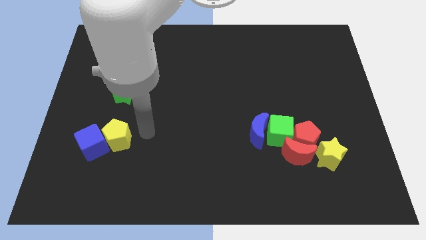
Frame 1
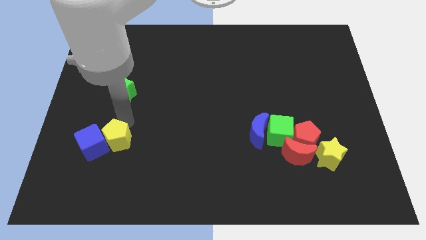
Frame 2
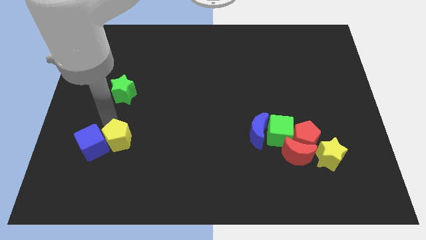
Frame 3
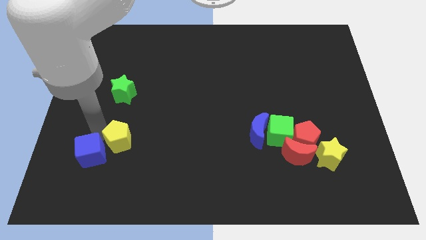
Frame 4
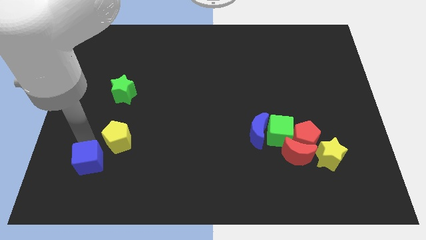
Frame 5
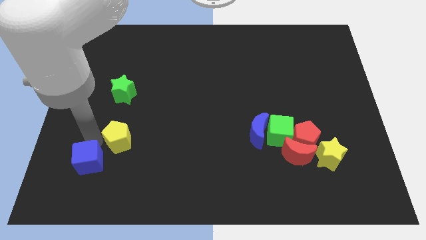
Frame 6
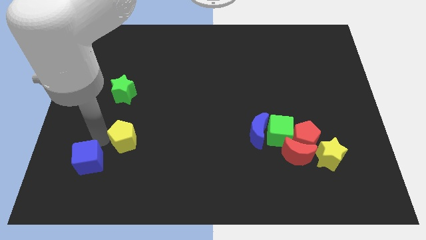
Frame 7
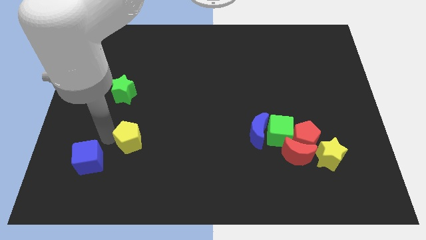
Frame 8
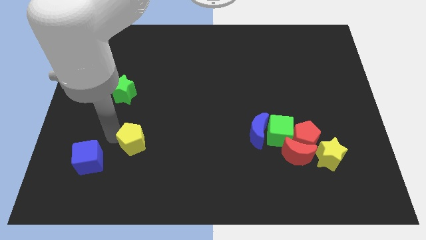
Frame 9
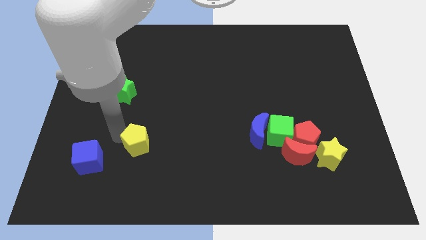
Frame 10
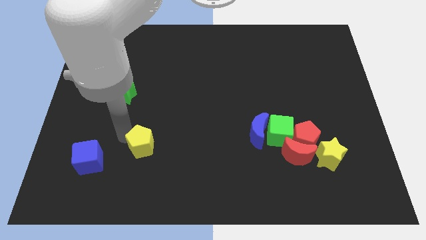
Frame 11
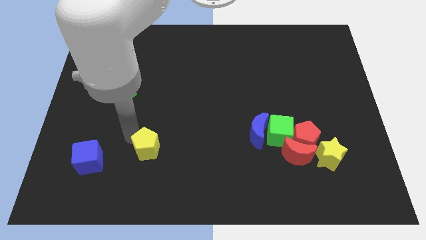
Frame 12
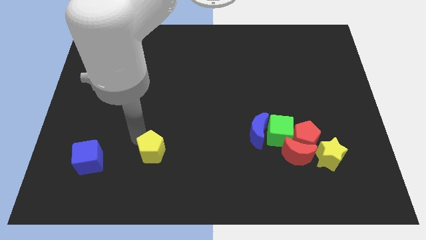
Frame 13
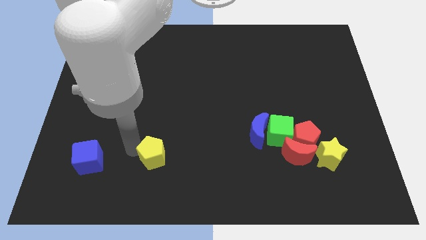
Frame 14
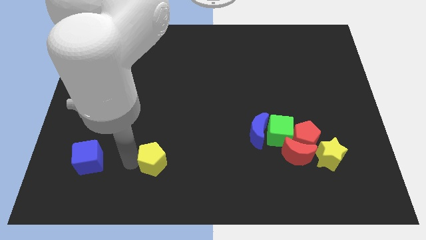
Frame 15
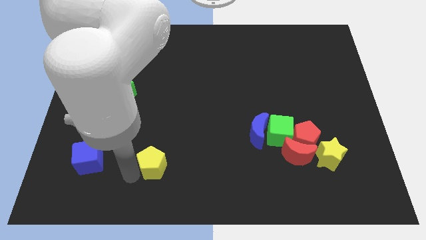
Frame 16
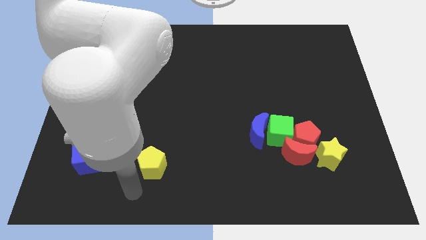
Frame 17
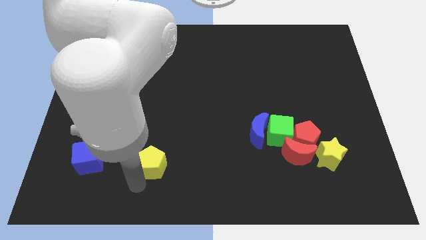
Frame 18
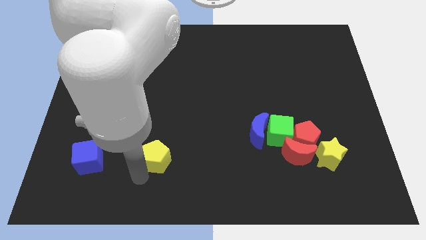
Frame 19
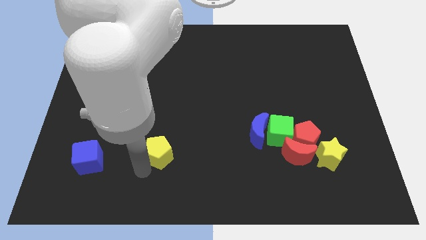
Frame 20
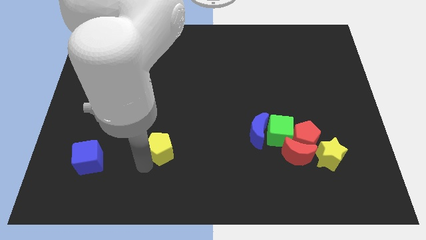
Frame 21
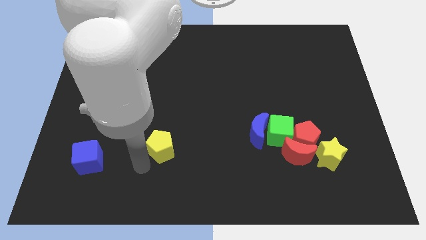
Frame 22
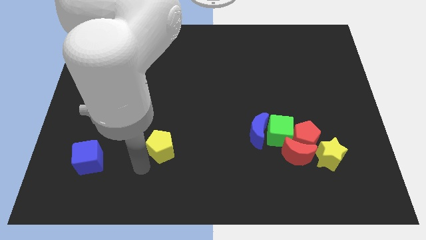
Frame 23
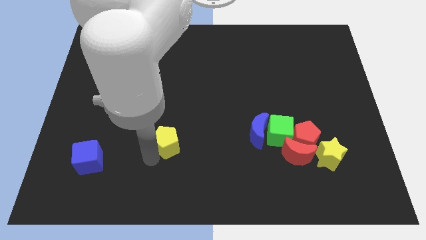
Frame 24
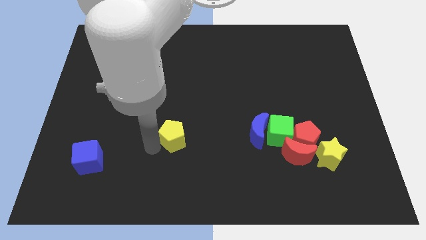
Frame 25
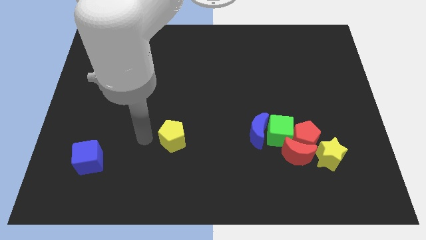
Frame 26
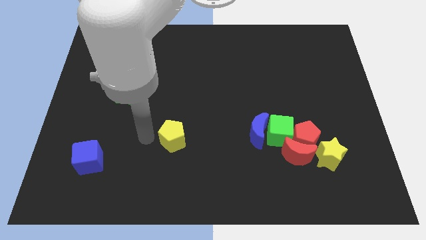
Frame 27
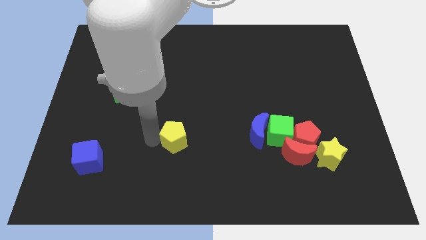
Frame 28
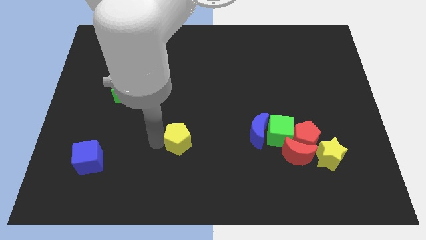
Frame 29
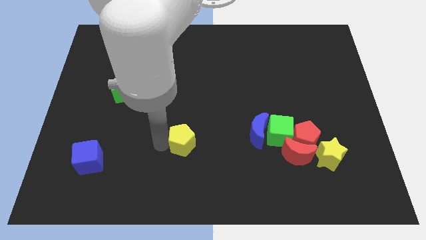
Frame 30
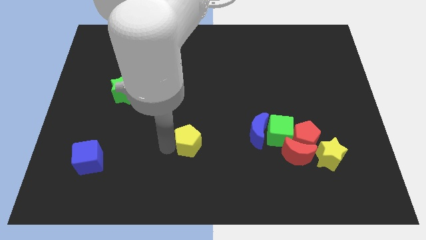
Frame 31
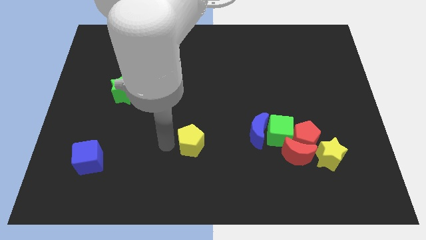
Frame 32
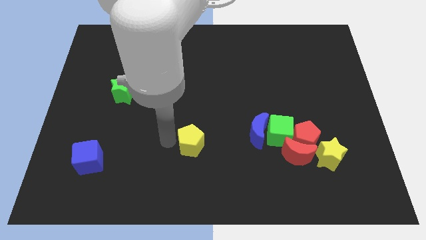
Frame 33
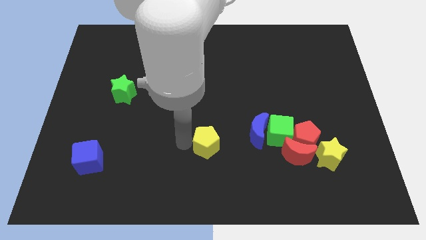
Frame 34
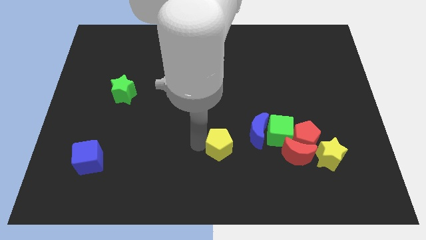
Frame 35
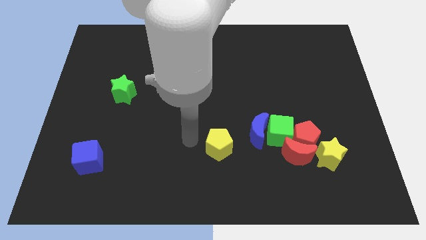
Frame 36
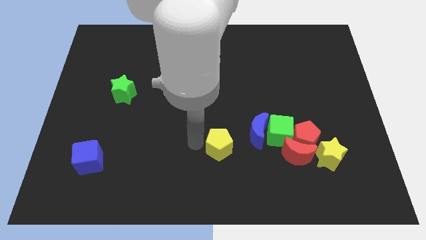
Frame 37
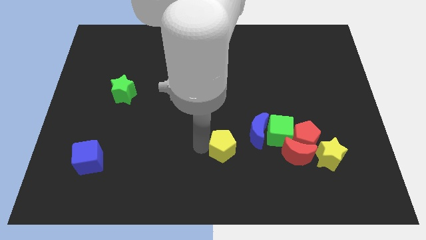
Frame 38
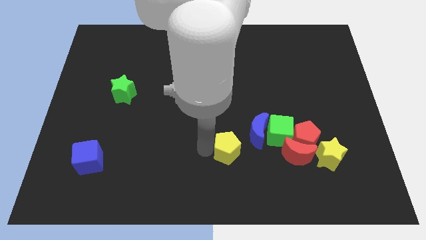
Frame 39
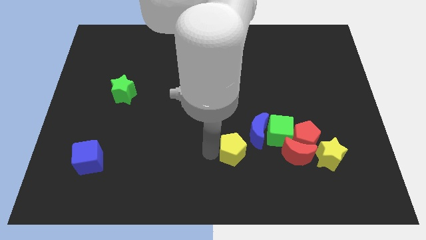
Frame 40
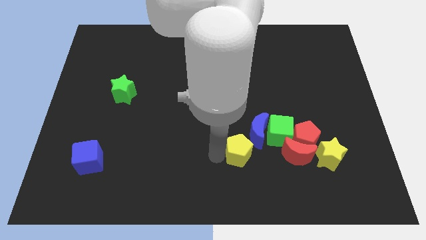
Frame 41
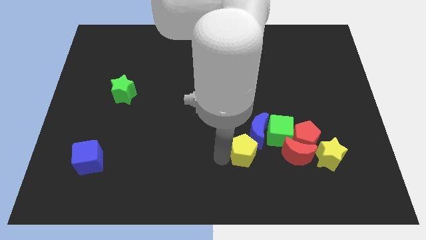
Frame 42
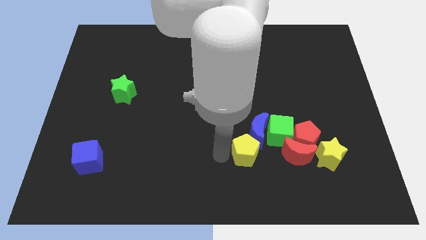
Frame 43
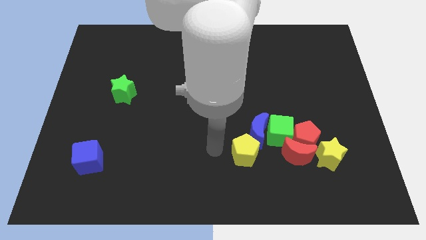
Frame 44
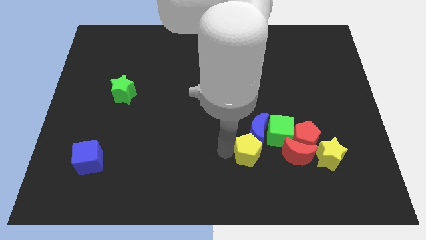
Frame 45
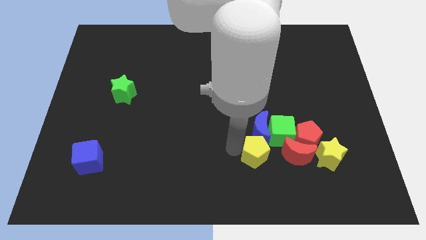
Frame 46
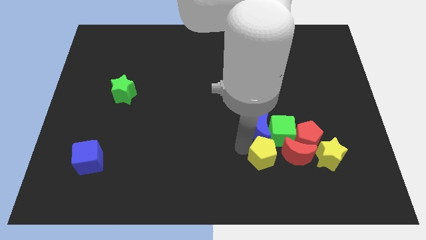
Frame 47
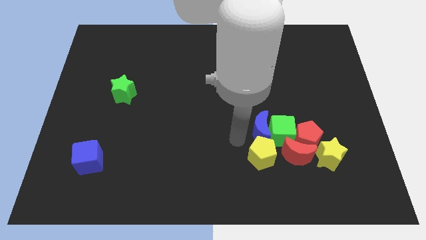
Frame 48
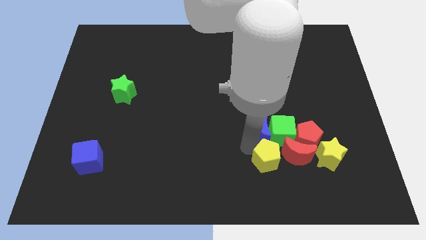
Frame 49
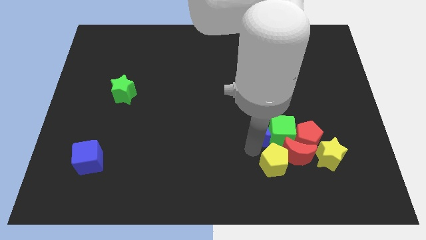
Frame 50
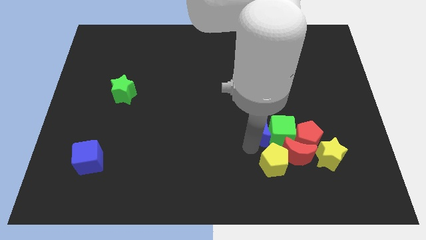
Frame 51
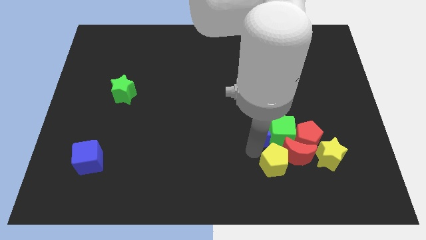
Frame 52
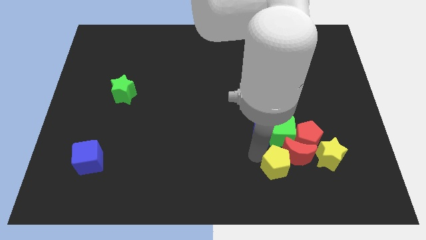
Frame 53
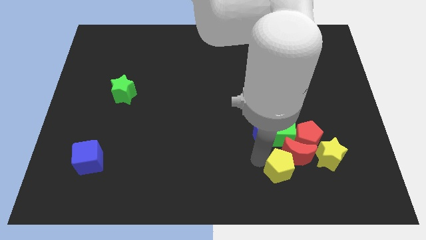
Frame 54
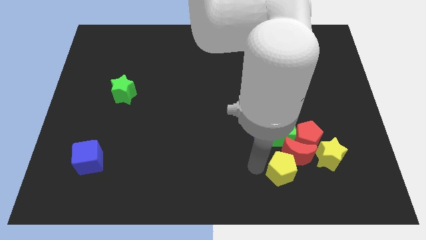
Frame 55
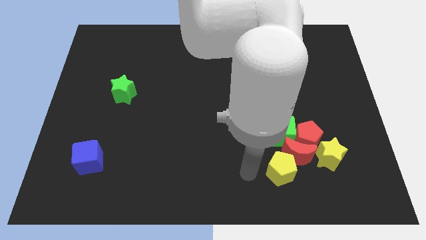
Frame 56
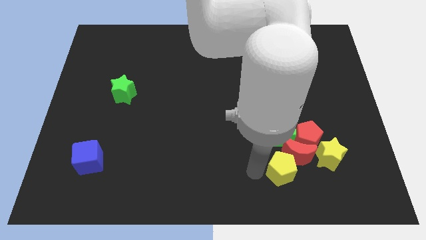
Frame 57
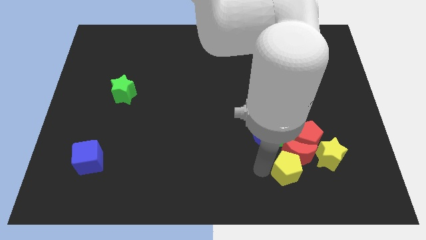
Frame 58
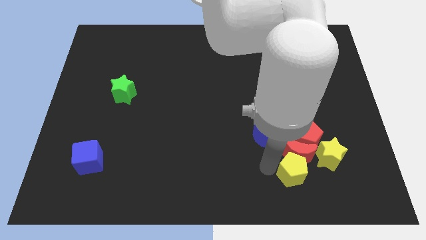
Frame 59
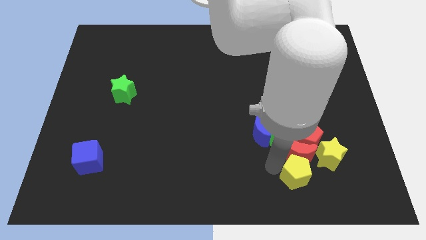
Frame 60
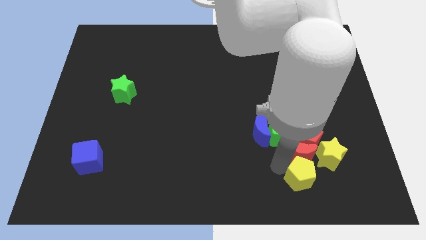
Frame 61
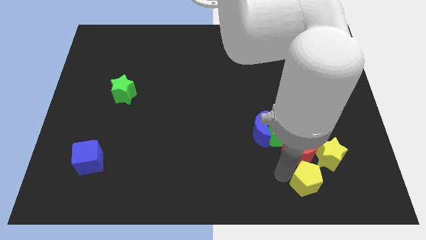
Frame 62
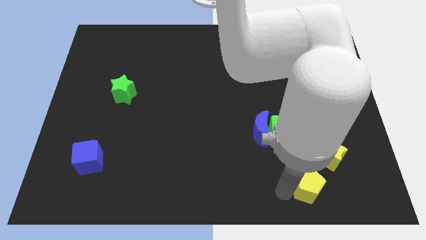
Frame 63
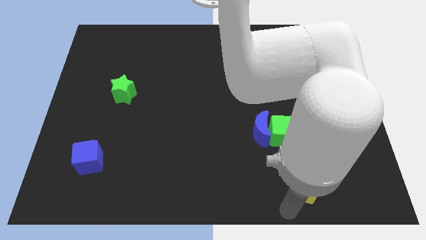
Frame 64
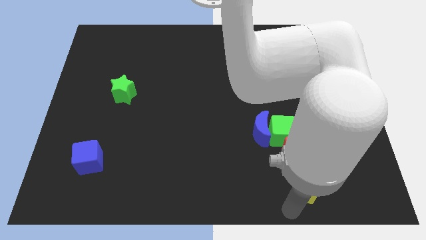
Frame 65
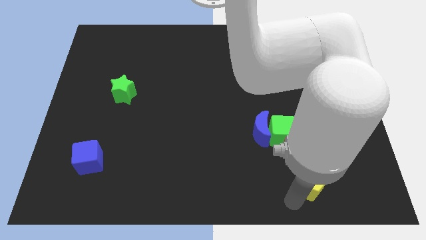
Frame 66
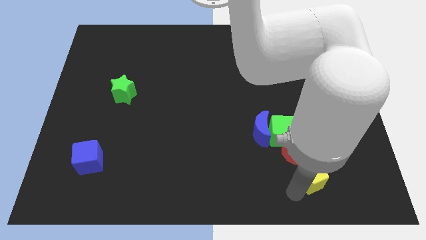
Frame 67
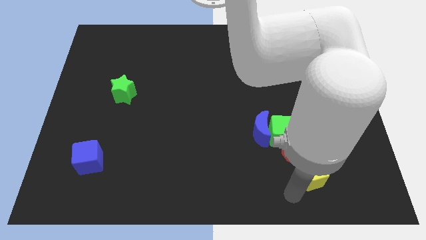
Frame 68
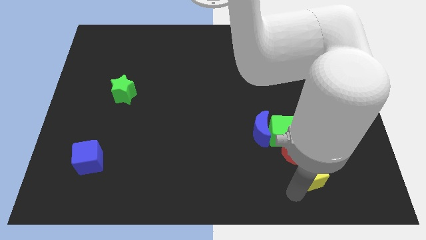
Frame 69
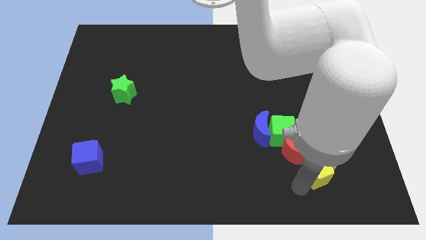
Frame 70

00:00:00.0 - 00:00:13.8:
put the yellow pentagon close to the yellow star
